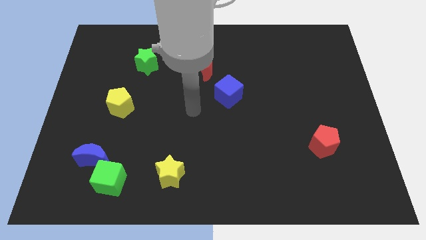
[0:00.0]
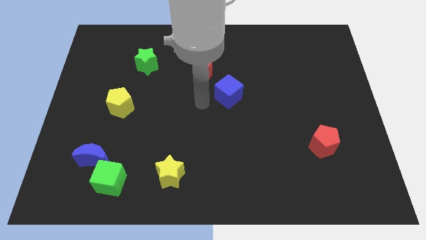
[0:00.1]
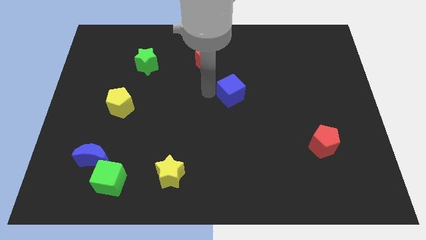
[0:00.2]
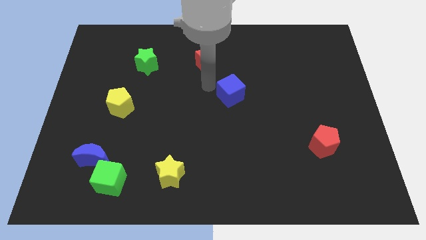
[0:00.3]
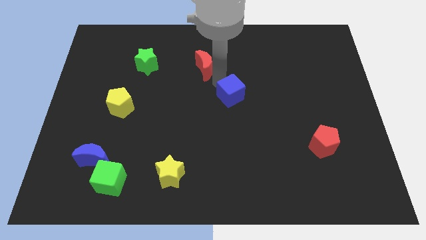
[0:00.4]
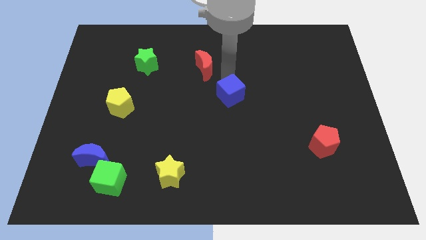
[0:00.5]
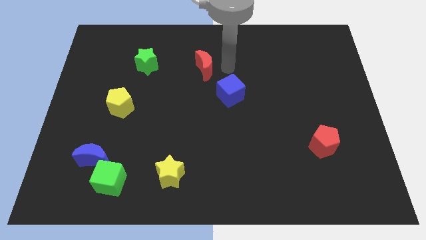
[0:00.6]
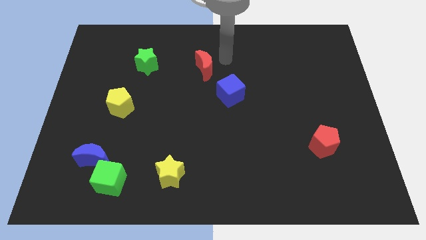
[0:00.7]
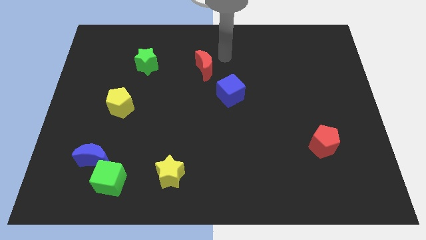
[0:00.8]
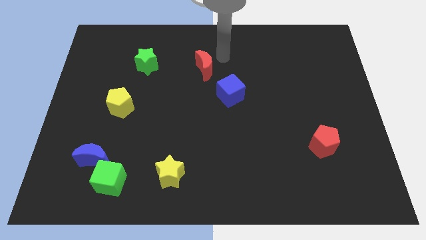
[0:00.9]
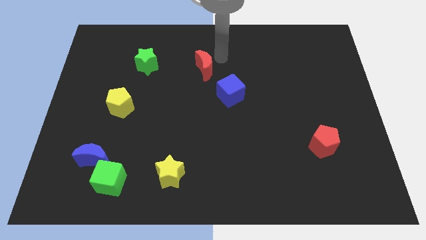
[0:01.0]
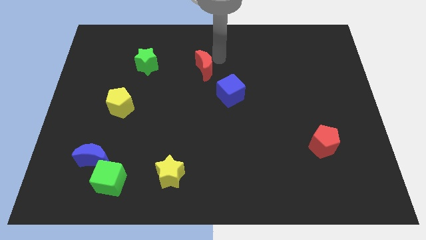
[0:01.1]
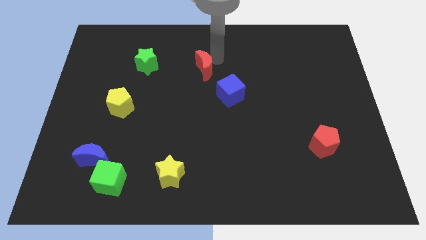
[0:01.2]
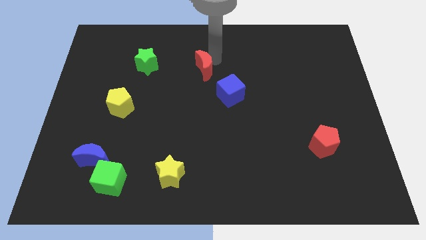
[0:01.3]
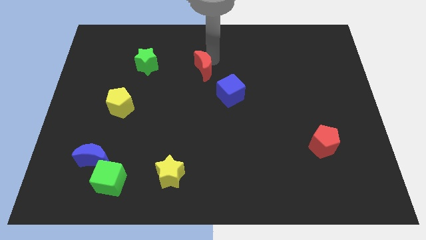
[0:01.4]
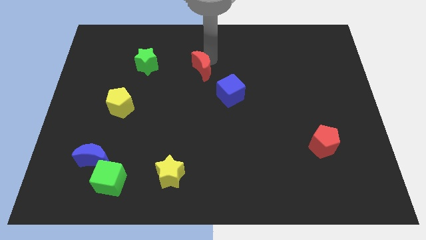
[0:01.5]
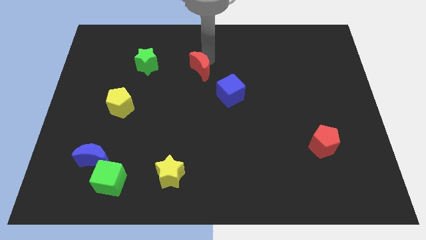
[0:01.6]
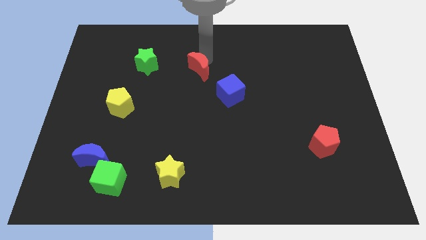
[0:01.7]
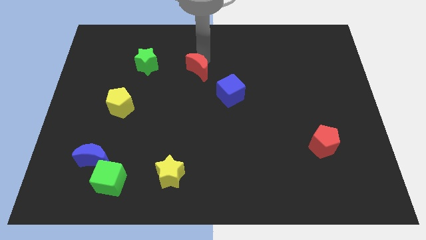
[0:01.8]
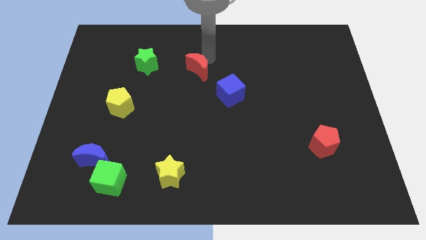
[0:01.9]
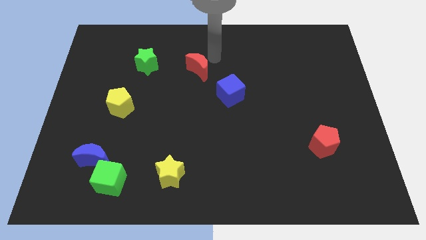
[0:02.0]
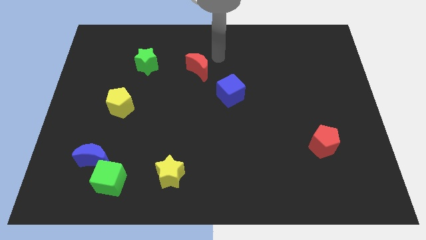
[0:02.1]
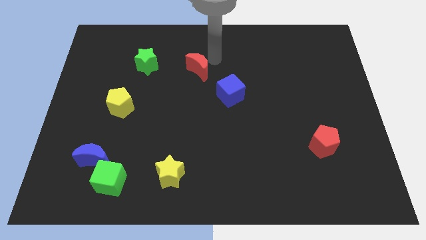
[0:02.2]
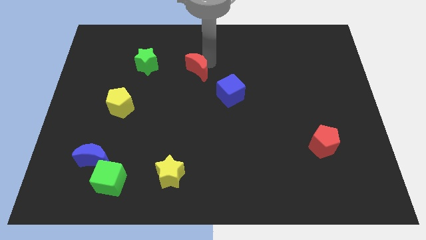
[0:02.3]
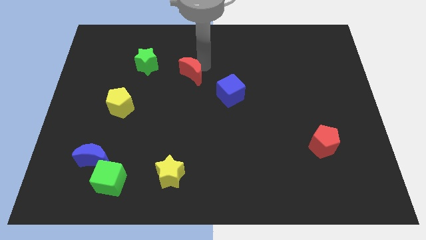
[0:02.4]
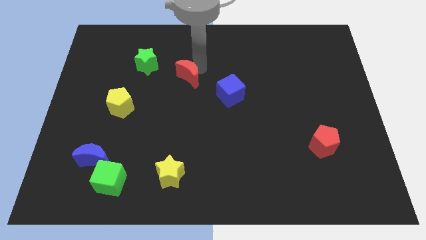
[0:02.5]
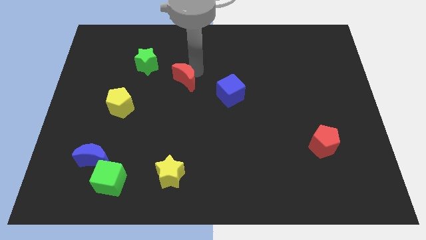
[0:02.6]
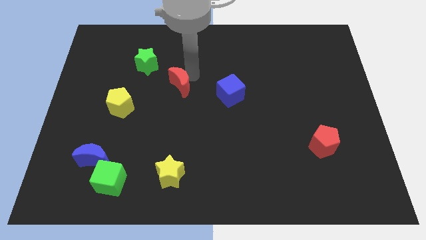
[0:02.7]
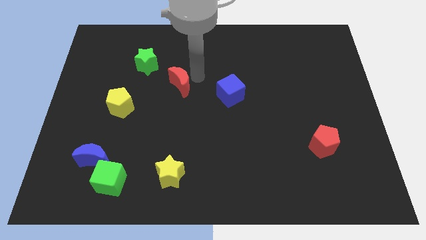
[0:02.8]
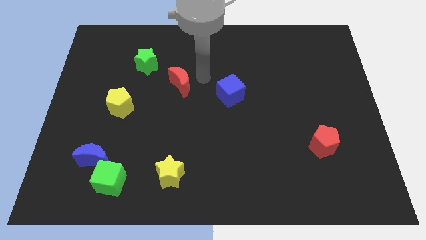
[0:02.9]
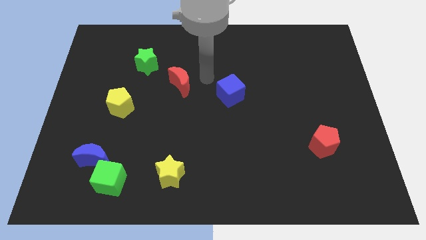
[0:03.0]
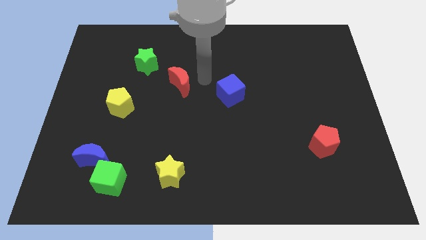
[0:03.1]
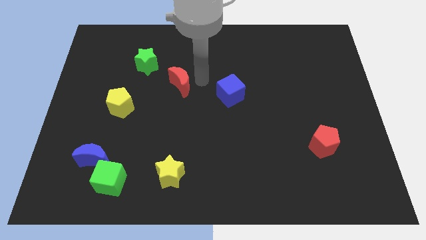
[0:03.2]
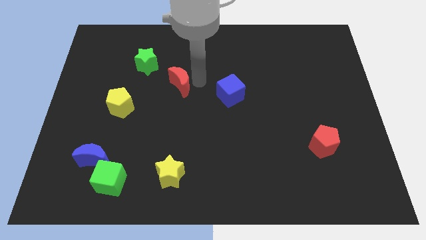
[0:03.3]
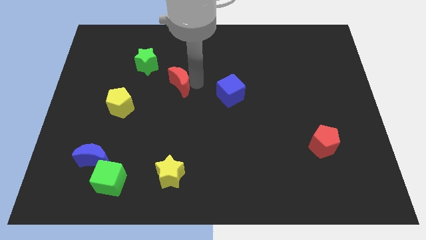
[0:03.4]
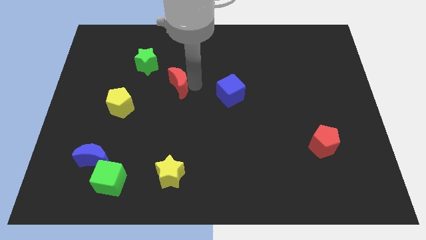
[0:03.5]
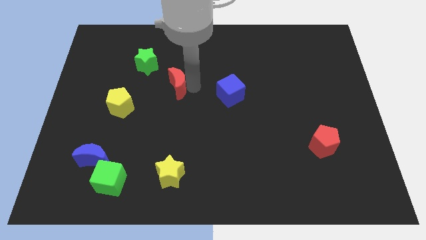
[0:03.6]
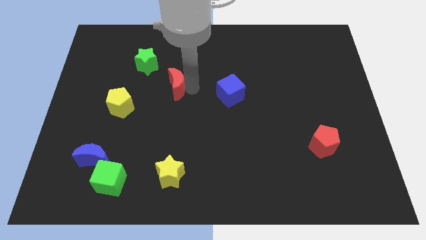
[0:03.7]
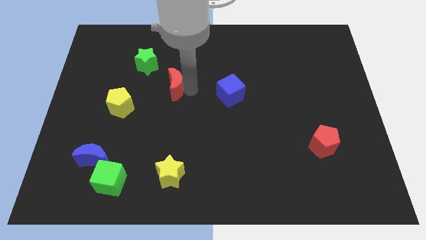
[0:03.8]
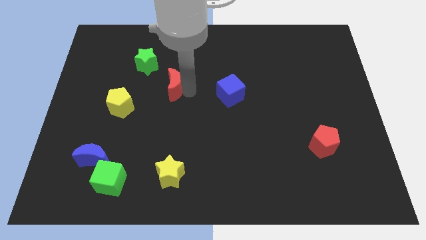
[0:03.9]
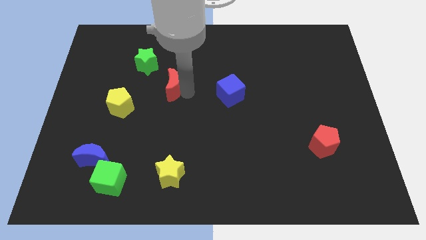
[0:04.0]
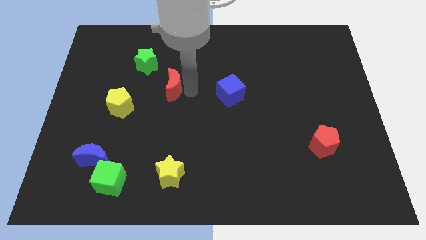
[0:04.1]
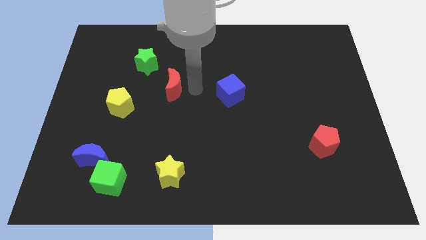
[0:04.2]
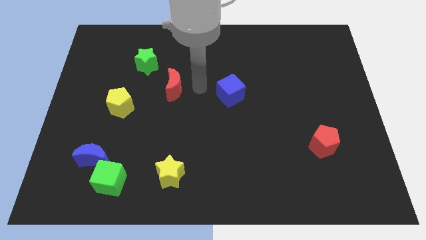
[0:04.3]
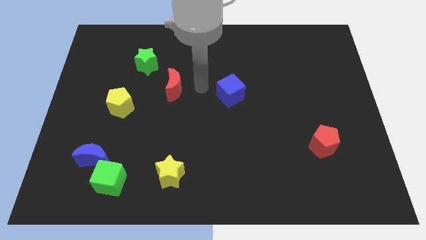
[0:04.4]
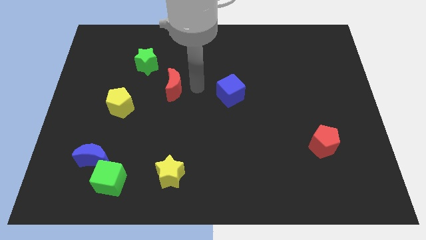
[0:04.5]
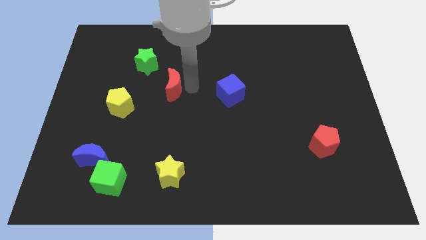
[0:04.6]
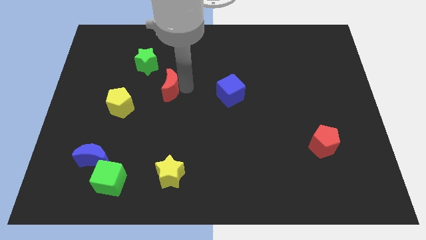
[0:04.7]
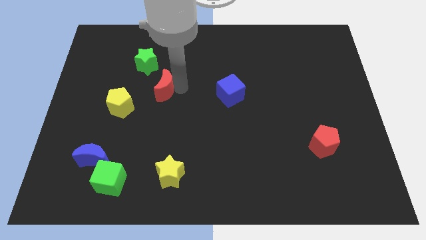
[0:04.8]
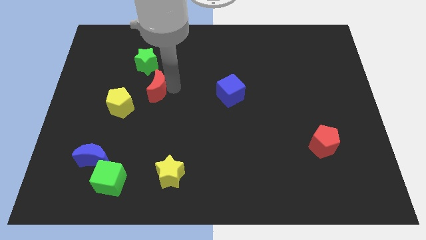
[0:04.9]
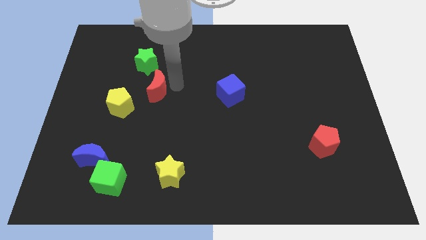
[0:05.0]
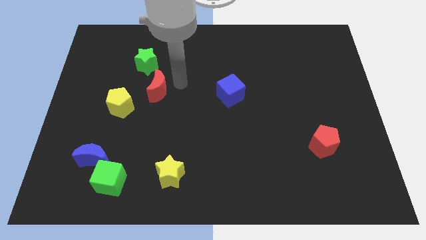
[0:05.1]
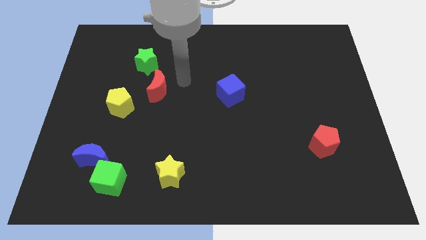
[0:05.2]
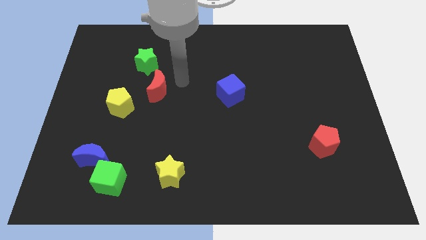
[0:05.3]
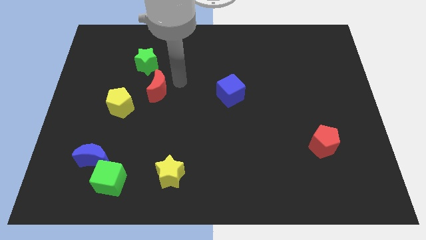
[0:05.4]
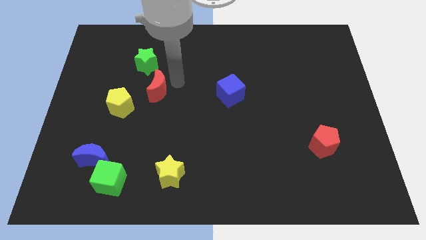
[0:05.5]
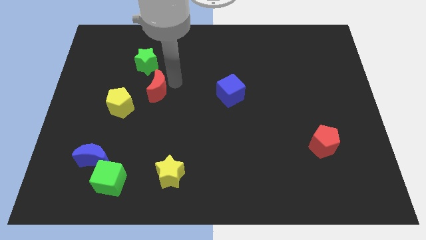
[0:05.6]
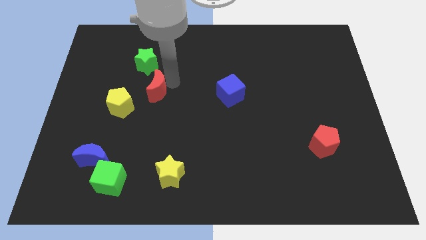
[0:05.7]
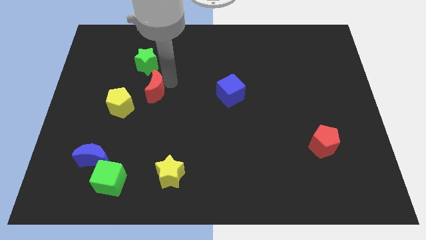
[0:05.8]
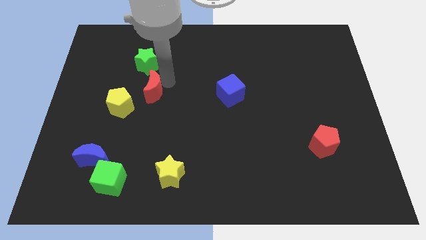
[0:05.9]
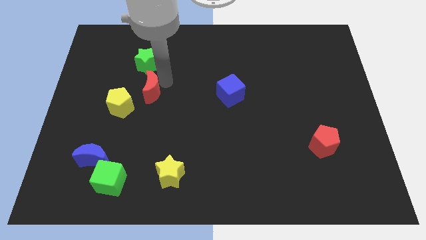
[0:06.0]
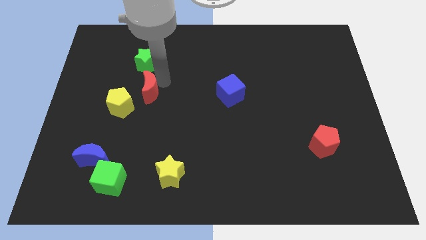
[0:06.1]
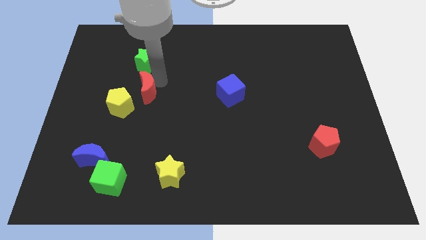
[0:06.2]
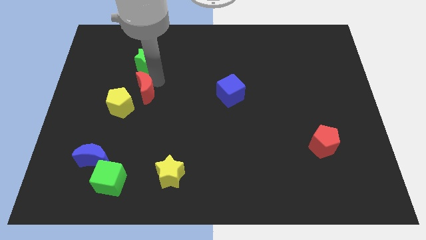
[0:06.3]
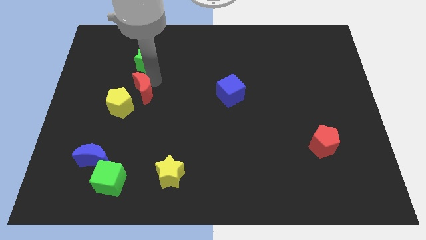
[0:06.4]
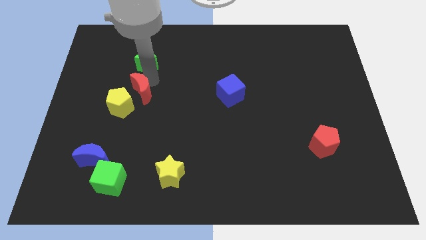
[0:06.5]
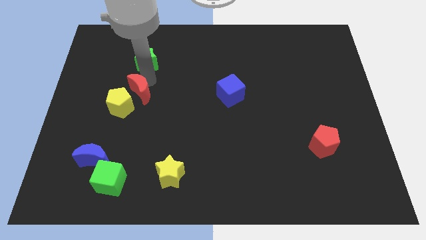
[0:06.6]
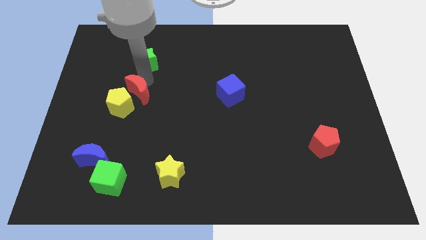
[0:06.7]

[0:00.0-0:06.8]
slide the red moon towards the yellow pentagon
